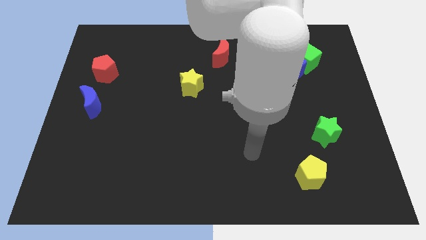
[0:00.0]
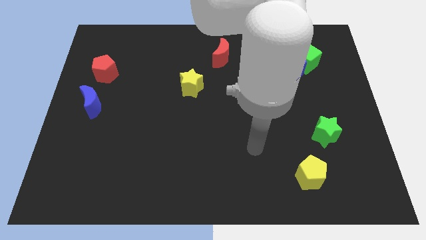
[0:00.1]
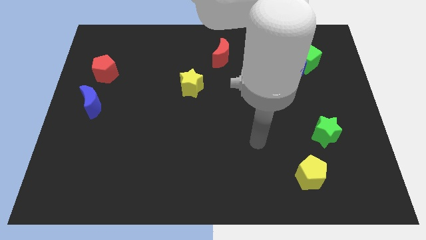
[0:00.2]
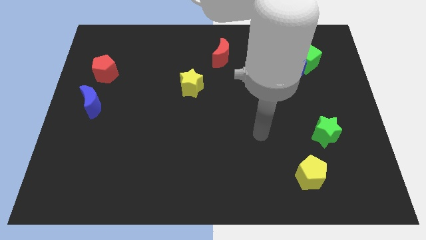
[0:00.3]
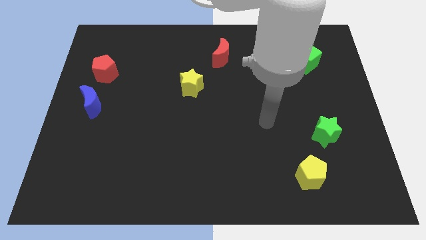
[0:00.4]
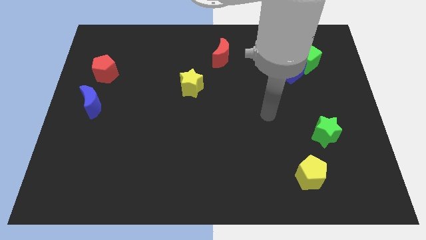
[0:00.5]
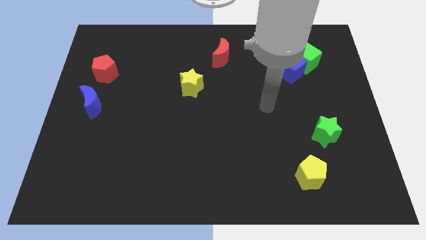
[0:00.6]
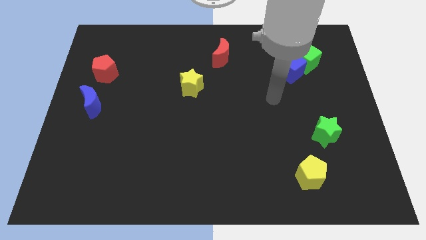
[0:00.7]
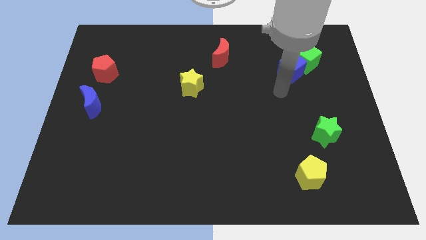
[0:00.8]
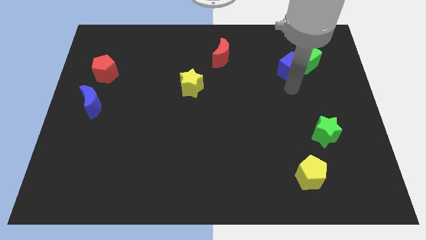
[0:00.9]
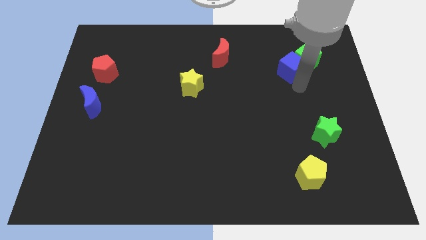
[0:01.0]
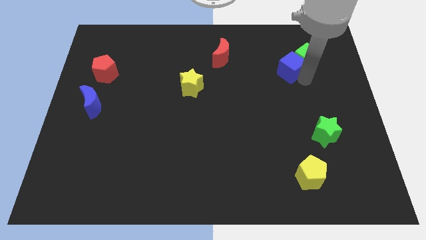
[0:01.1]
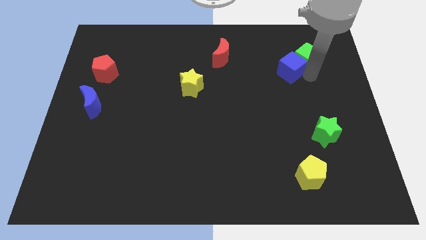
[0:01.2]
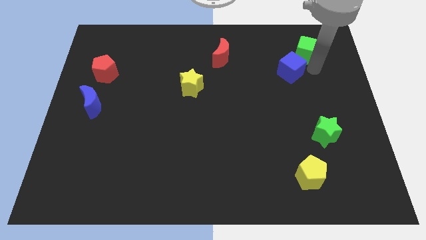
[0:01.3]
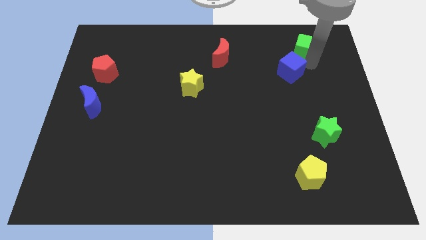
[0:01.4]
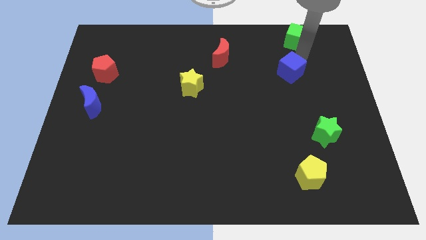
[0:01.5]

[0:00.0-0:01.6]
separate the blue cube from the green cube

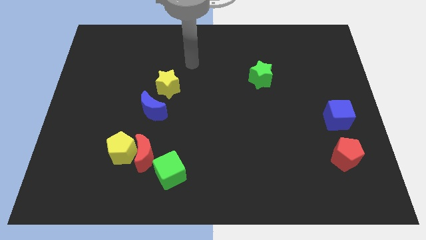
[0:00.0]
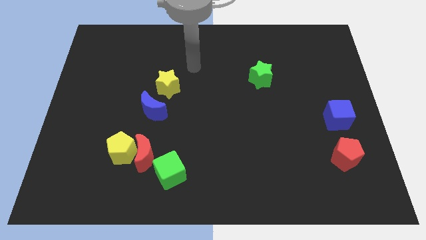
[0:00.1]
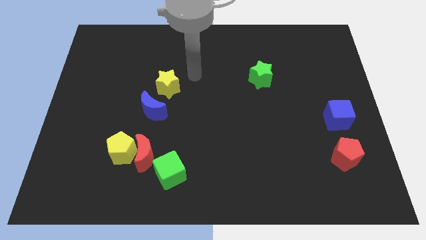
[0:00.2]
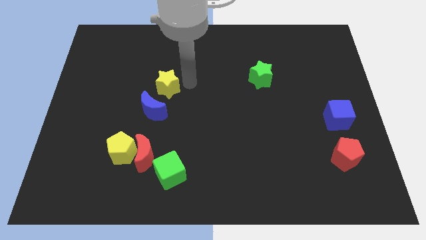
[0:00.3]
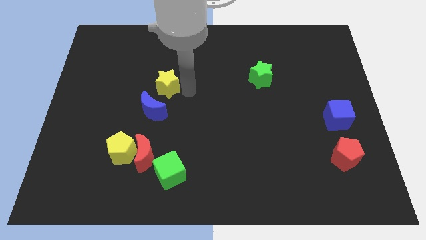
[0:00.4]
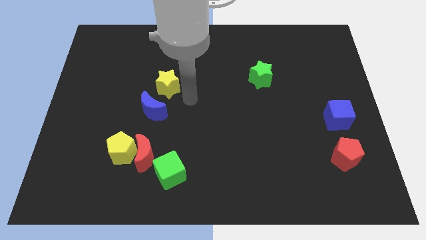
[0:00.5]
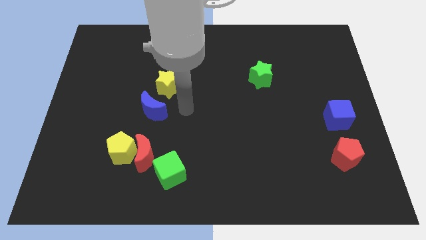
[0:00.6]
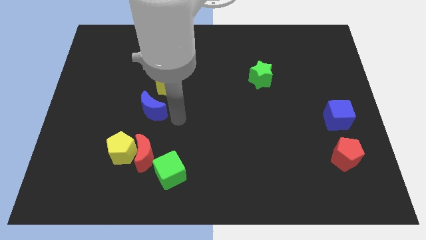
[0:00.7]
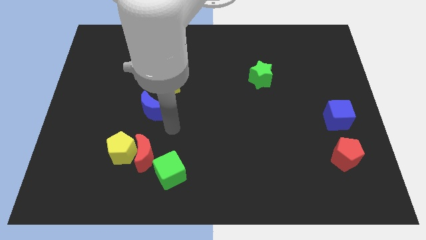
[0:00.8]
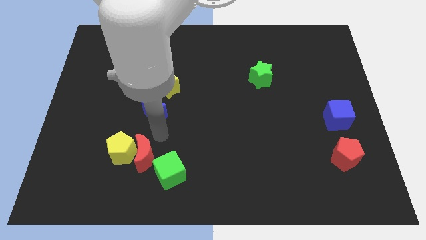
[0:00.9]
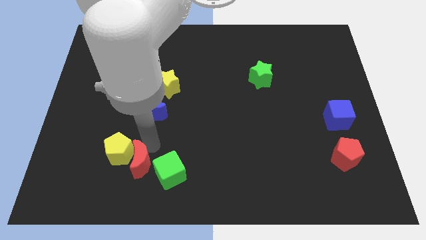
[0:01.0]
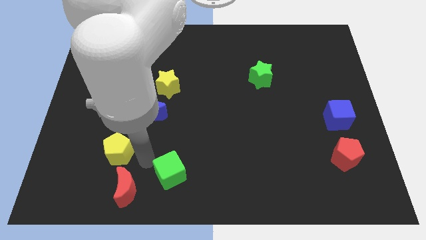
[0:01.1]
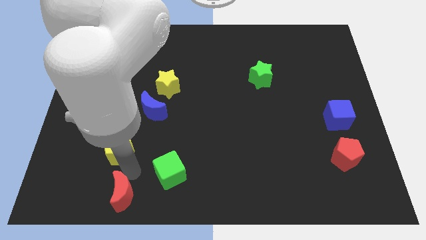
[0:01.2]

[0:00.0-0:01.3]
pull the yellow pentagon apart from the red moon

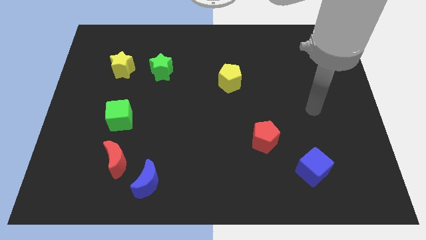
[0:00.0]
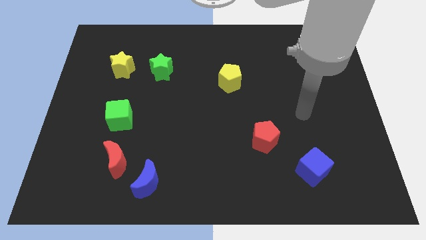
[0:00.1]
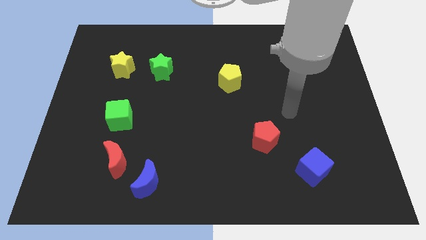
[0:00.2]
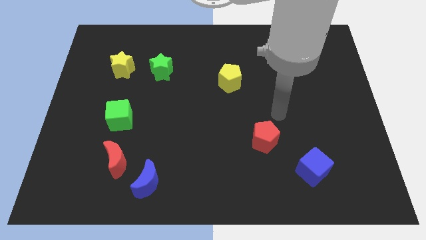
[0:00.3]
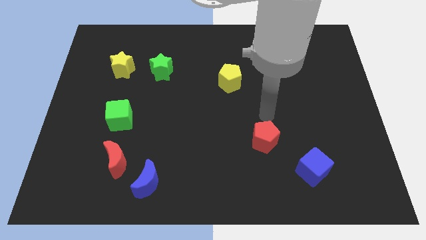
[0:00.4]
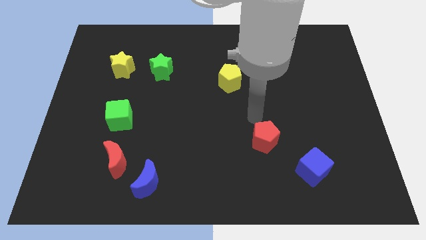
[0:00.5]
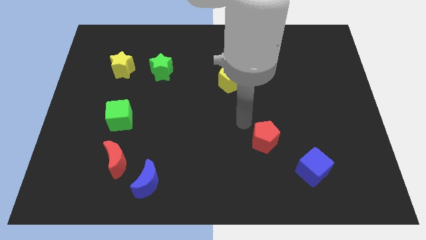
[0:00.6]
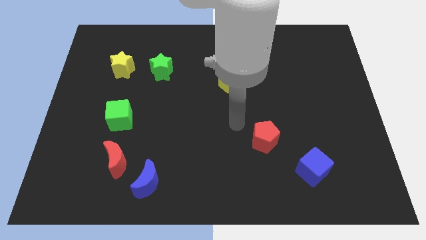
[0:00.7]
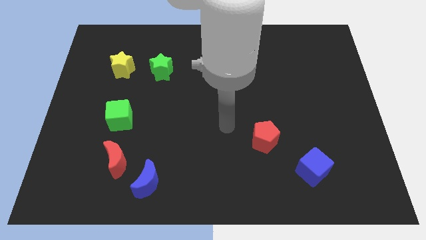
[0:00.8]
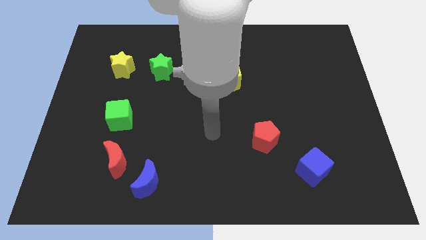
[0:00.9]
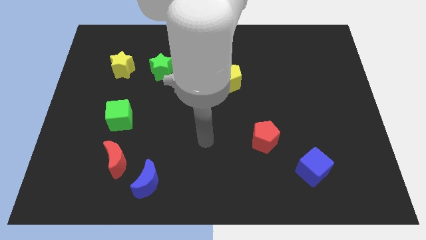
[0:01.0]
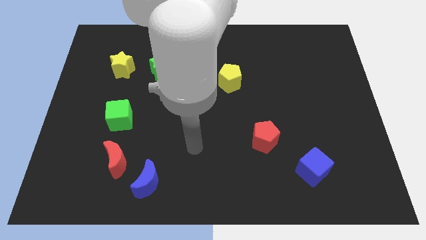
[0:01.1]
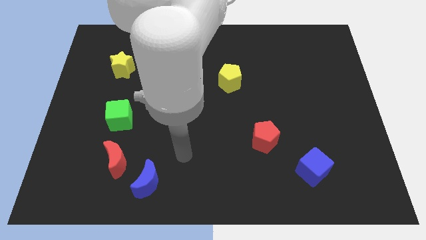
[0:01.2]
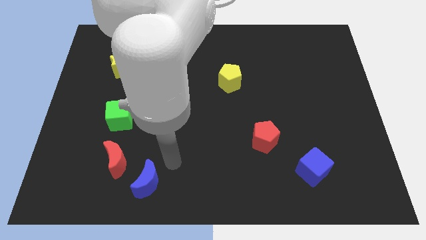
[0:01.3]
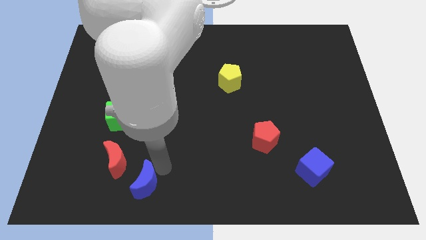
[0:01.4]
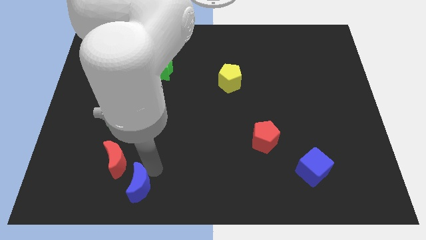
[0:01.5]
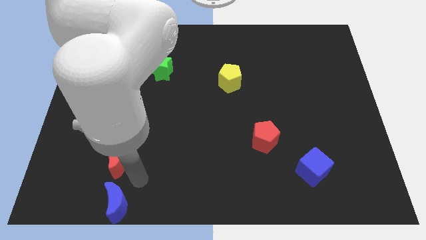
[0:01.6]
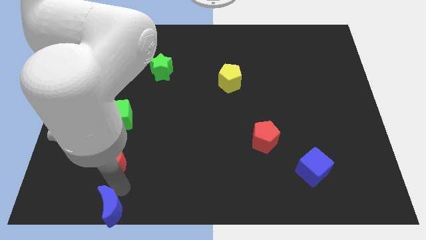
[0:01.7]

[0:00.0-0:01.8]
move the red moon away from the blue moon

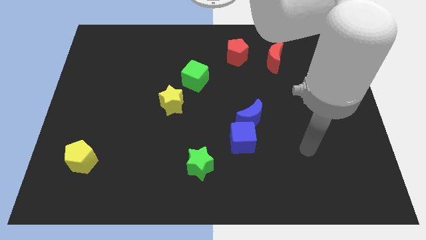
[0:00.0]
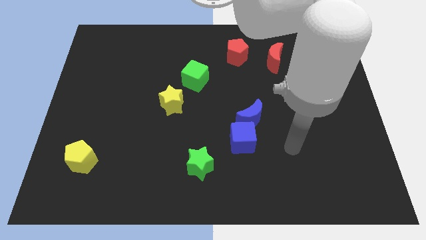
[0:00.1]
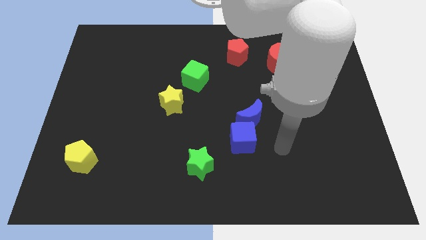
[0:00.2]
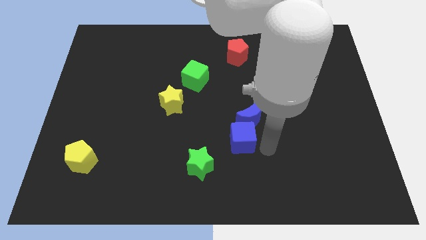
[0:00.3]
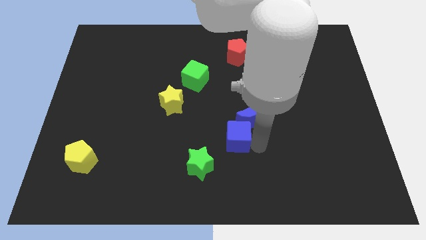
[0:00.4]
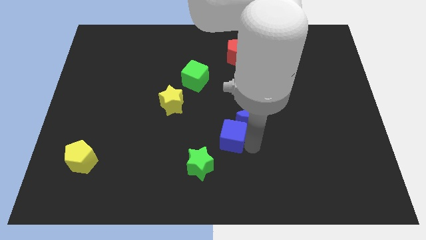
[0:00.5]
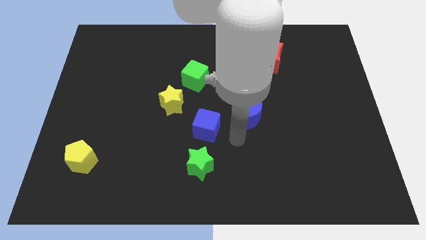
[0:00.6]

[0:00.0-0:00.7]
move the blue moon away from the blue cube

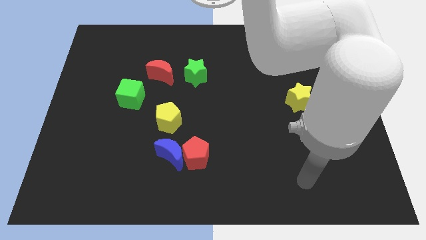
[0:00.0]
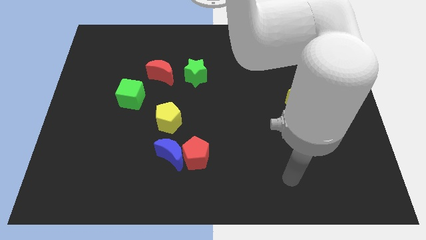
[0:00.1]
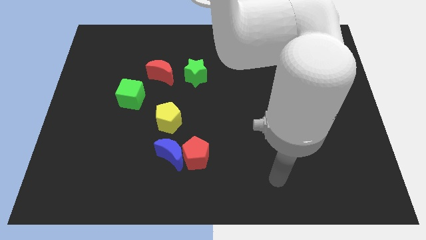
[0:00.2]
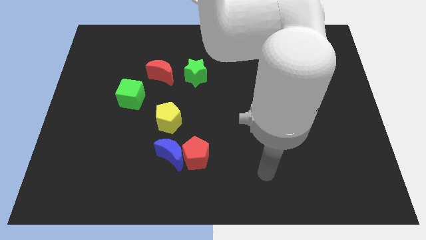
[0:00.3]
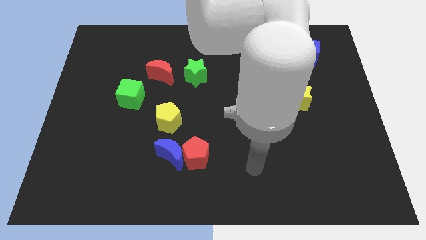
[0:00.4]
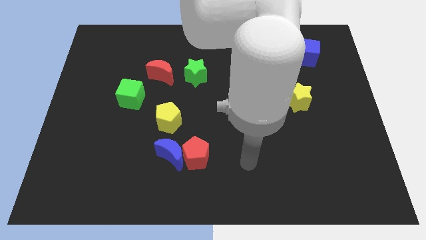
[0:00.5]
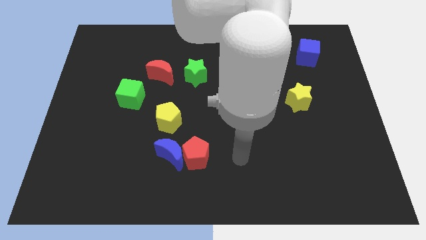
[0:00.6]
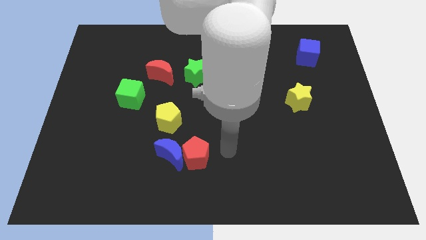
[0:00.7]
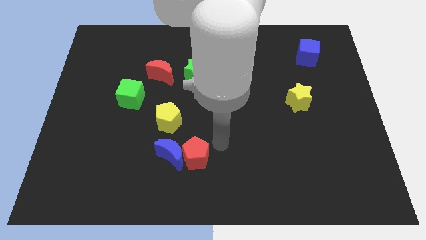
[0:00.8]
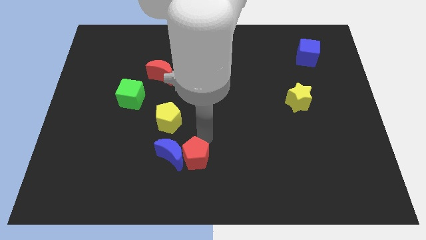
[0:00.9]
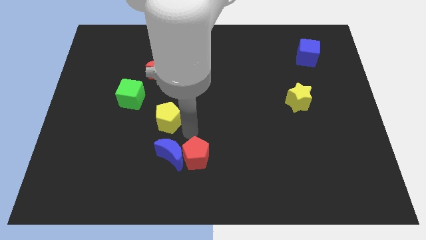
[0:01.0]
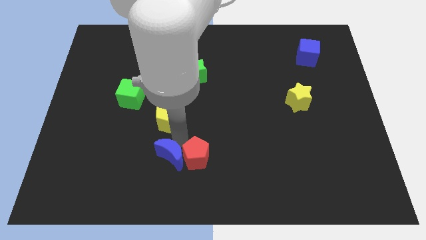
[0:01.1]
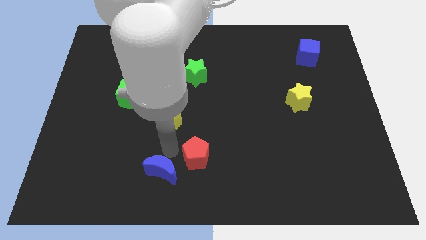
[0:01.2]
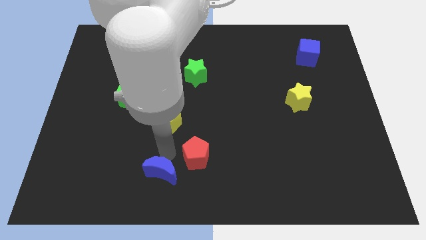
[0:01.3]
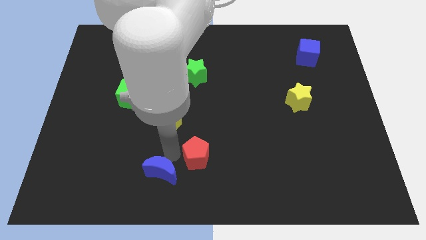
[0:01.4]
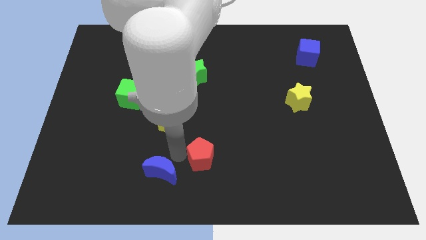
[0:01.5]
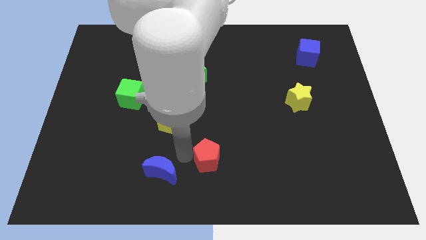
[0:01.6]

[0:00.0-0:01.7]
pull the red pentagon apart from the blue moon

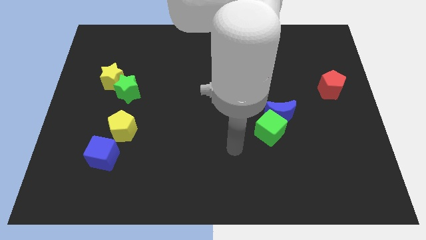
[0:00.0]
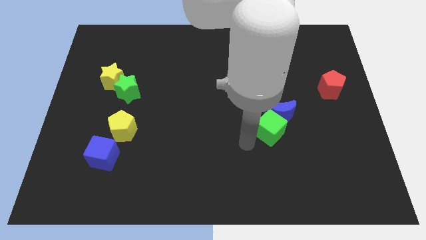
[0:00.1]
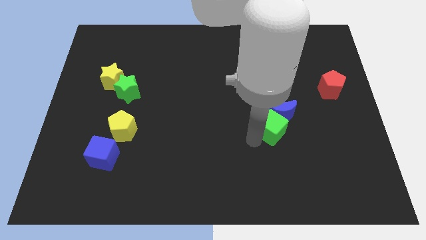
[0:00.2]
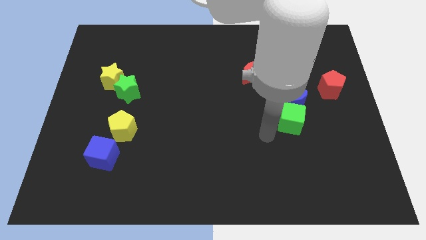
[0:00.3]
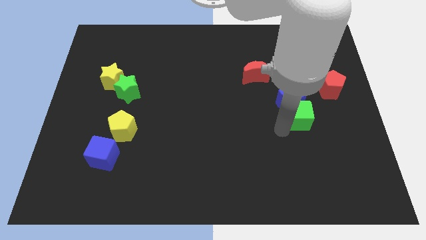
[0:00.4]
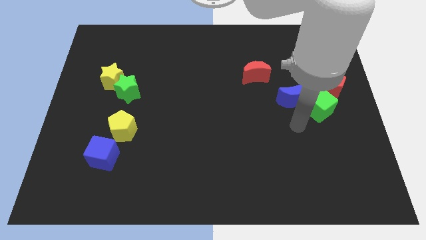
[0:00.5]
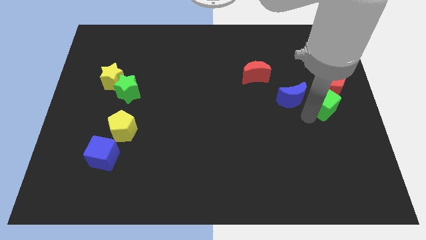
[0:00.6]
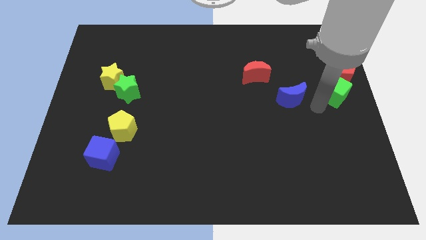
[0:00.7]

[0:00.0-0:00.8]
separate the blue moon from the green cube

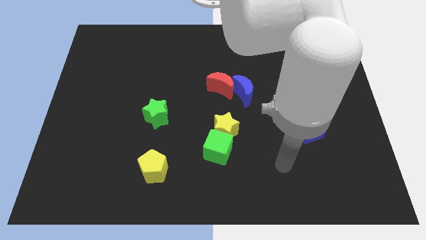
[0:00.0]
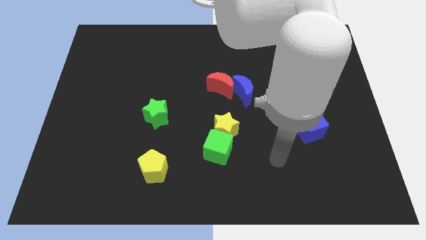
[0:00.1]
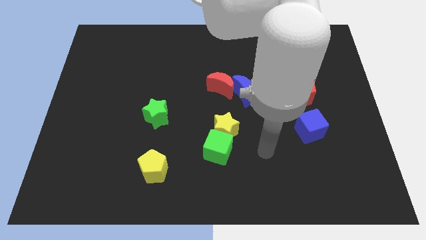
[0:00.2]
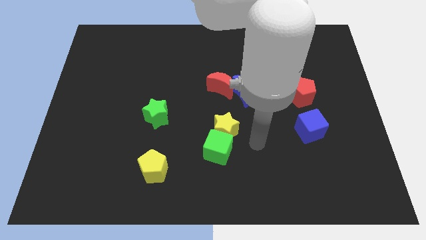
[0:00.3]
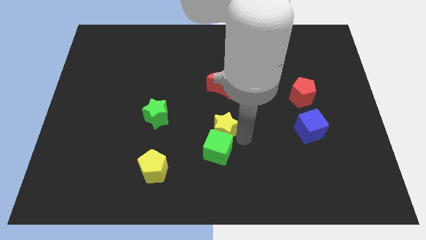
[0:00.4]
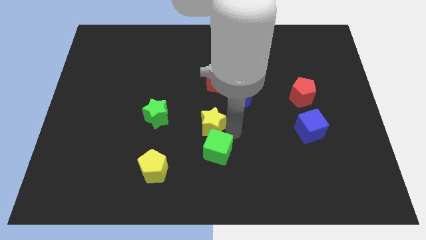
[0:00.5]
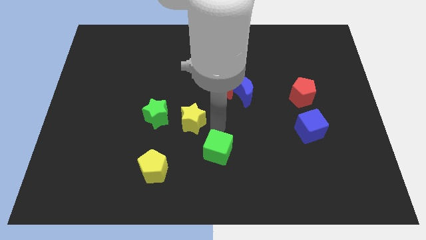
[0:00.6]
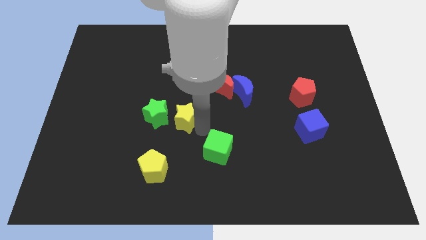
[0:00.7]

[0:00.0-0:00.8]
pull the green cube apart from the yellow star

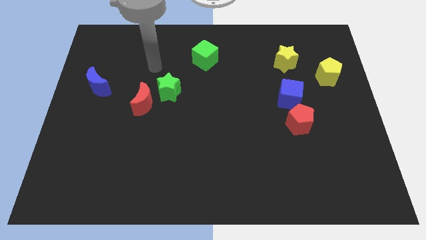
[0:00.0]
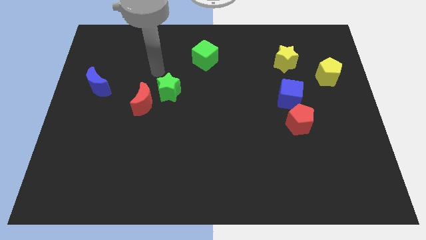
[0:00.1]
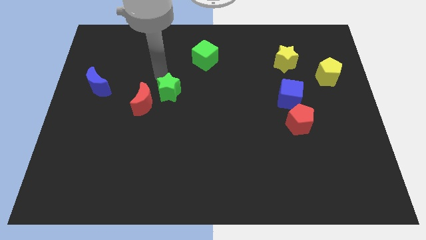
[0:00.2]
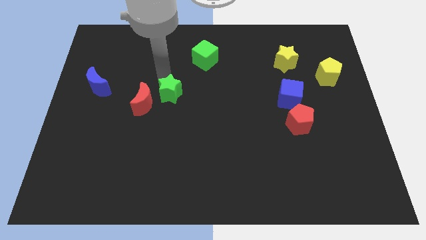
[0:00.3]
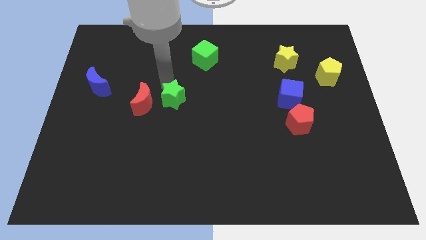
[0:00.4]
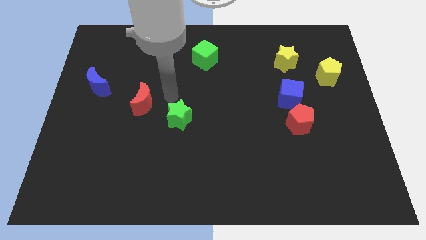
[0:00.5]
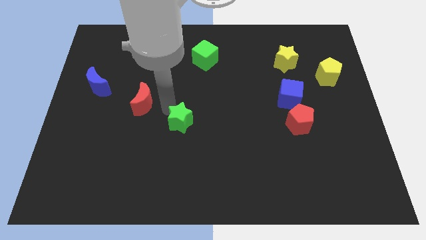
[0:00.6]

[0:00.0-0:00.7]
move the red moon away from the green star
